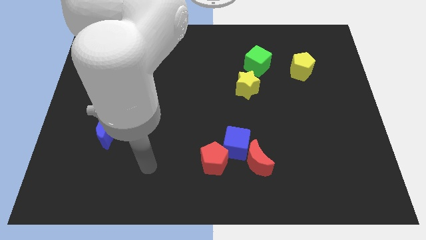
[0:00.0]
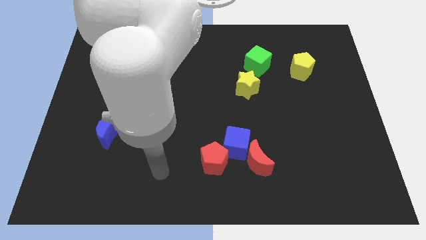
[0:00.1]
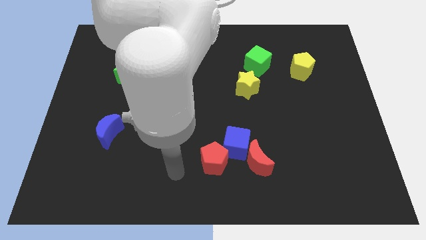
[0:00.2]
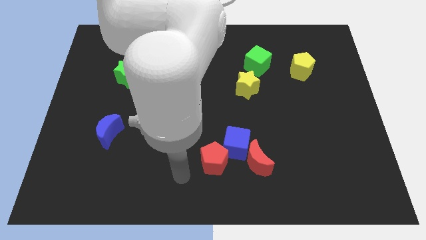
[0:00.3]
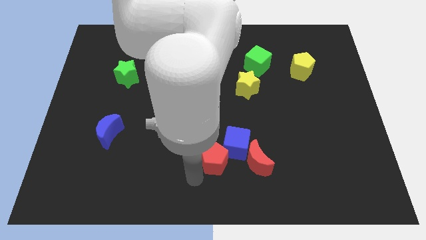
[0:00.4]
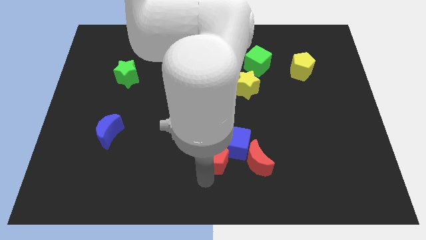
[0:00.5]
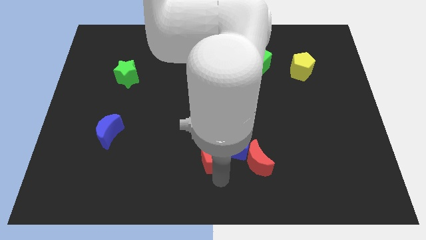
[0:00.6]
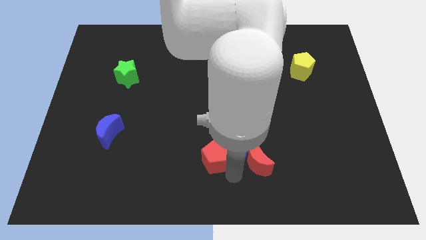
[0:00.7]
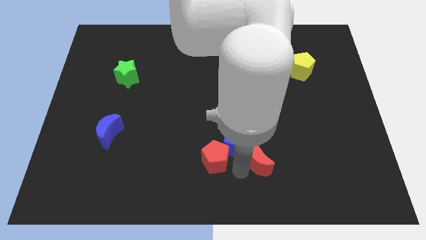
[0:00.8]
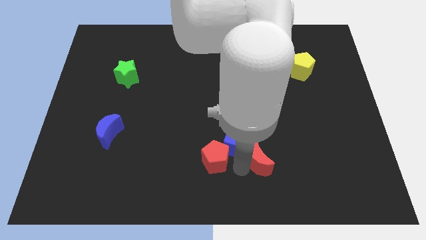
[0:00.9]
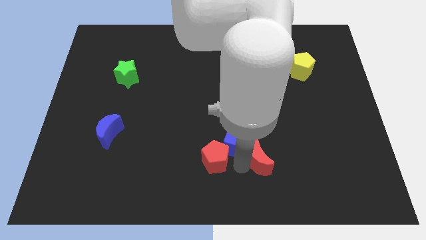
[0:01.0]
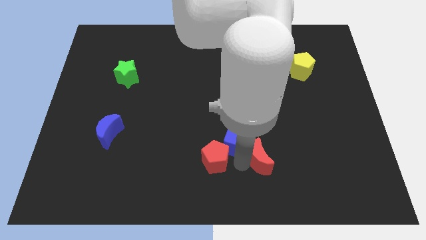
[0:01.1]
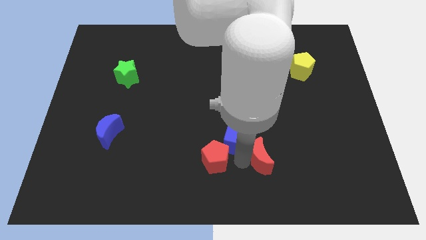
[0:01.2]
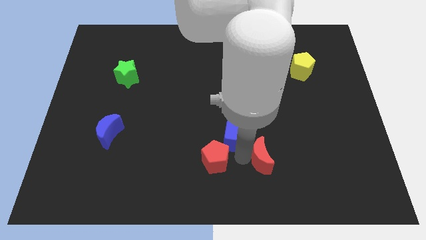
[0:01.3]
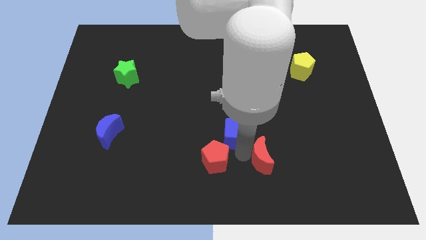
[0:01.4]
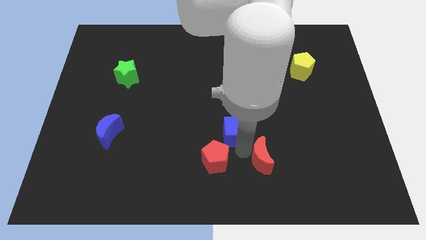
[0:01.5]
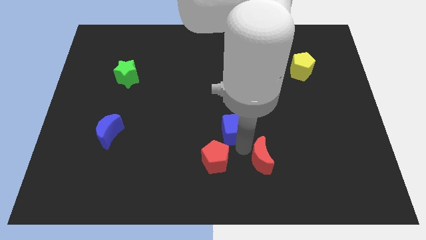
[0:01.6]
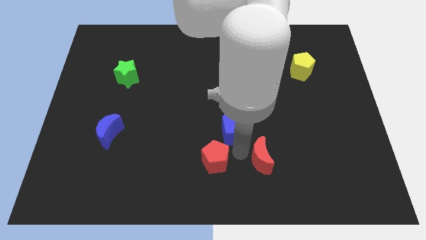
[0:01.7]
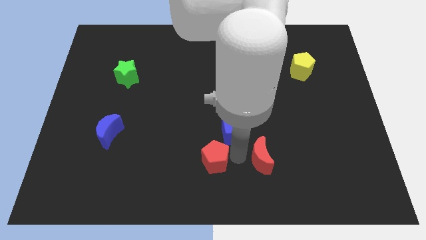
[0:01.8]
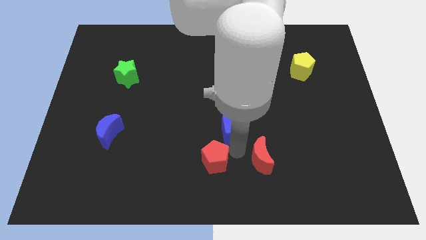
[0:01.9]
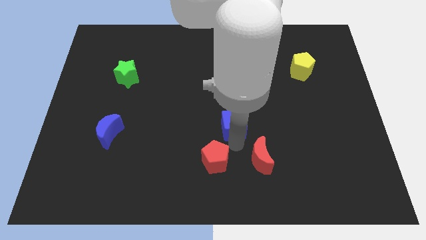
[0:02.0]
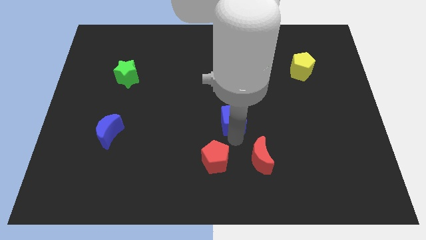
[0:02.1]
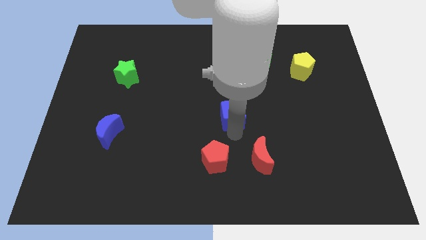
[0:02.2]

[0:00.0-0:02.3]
pull the blue cube apart from the red moon and red pentagon

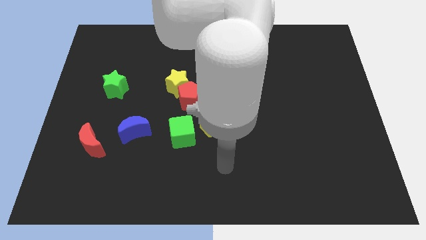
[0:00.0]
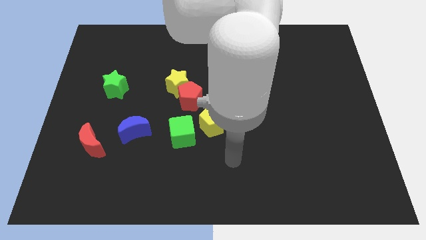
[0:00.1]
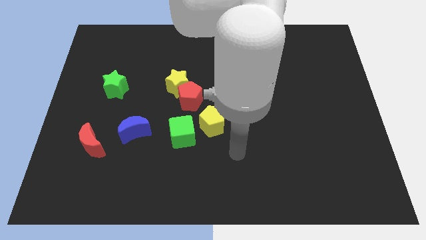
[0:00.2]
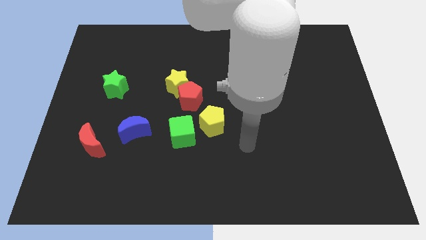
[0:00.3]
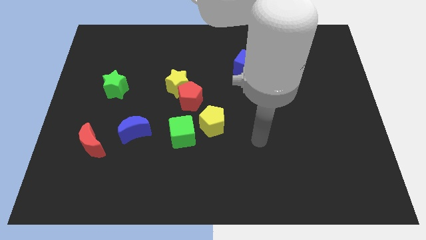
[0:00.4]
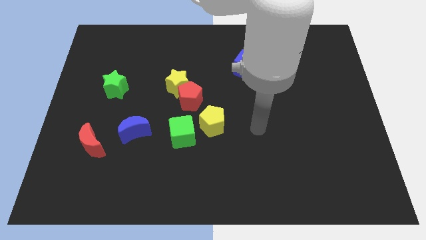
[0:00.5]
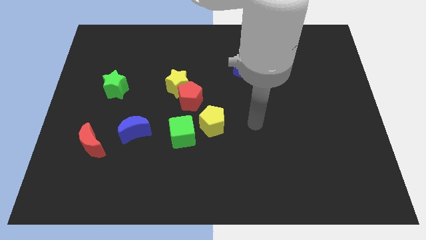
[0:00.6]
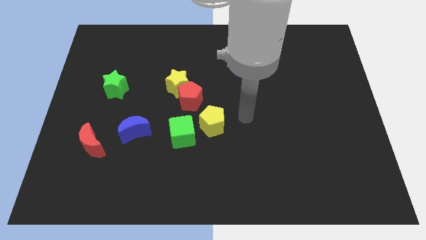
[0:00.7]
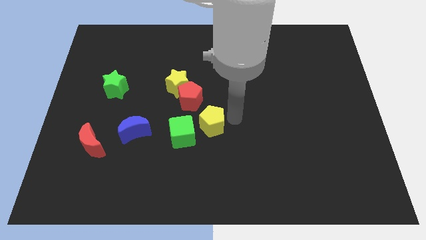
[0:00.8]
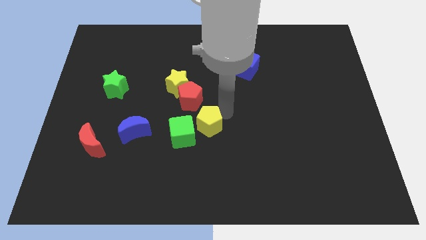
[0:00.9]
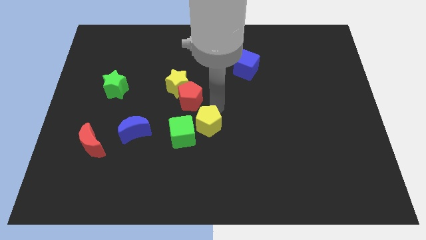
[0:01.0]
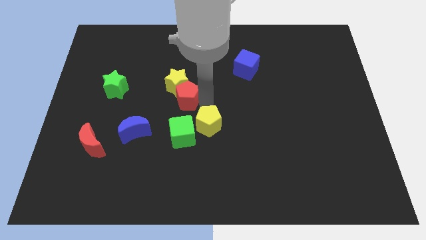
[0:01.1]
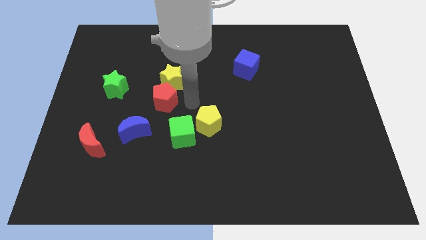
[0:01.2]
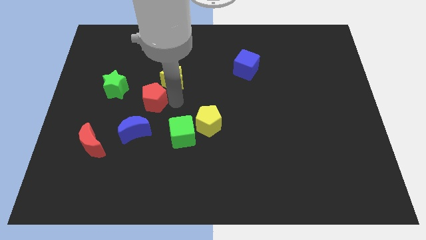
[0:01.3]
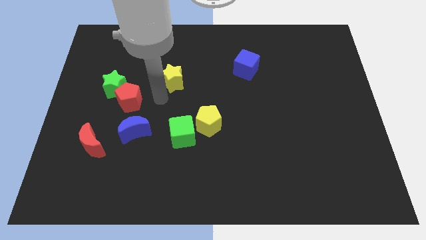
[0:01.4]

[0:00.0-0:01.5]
move the yellow star away from the red pentagon

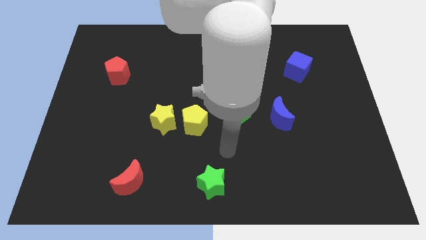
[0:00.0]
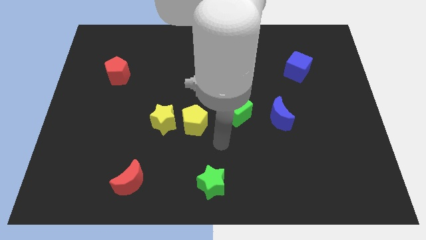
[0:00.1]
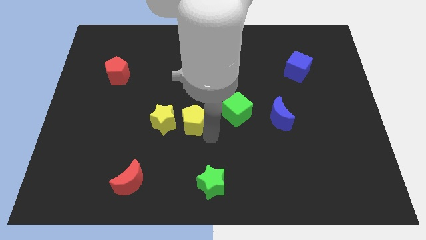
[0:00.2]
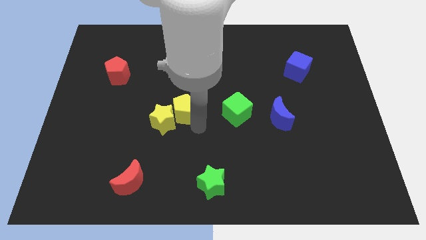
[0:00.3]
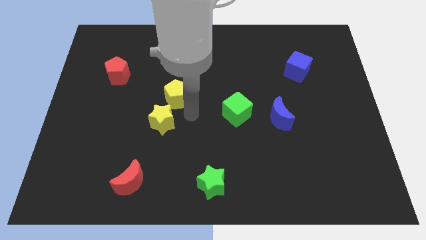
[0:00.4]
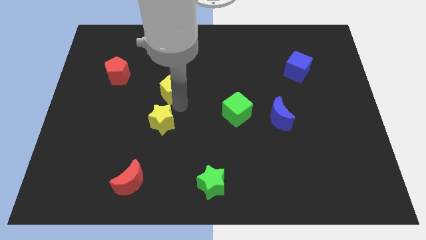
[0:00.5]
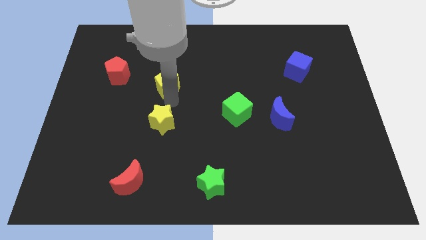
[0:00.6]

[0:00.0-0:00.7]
pull the yellow star apart from the yellow pentagon

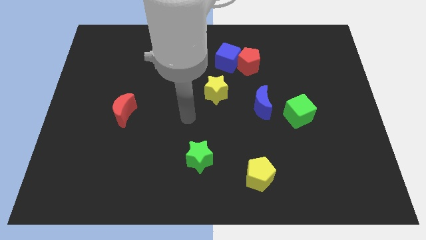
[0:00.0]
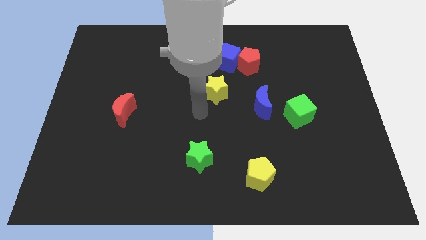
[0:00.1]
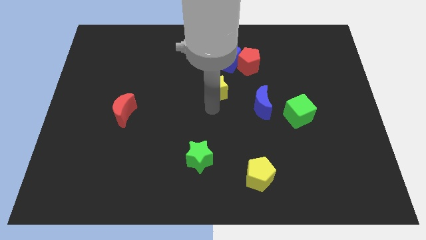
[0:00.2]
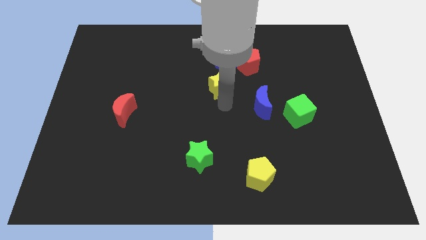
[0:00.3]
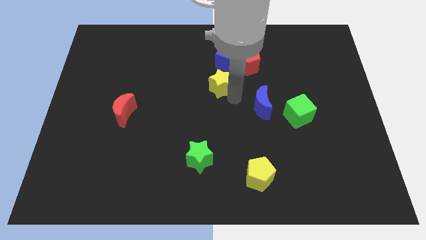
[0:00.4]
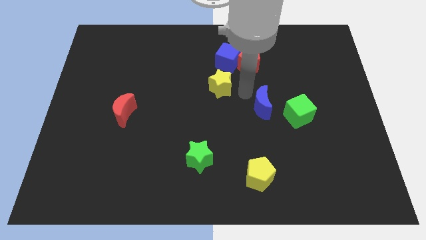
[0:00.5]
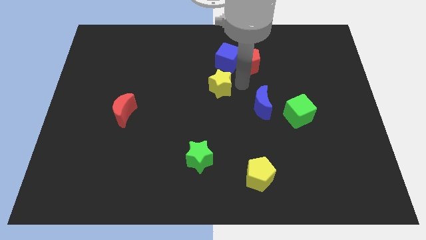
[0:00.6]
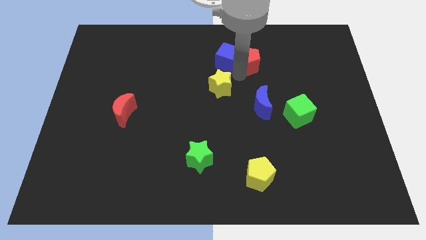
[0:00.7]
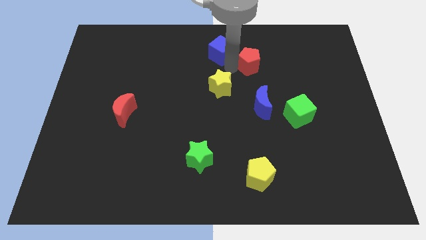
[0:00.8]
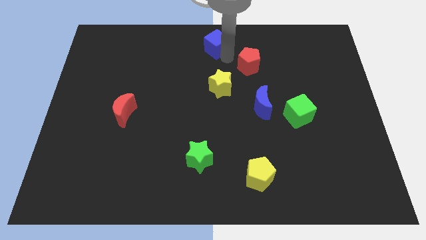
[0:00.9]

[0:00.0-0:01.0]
move the red pentagon away from the blue cube

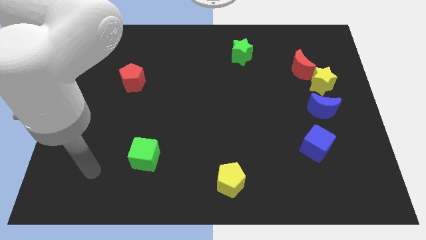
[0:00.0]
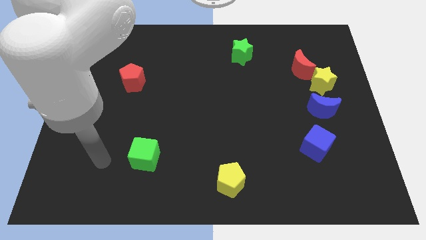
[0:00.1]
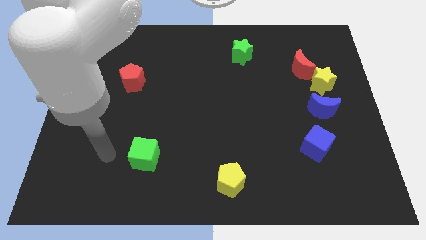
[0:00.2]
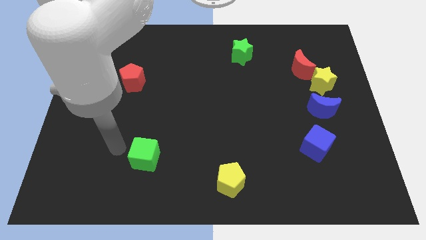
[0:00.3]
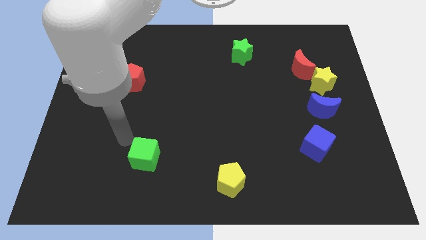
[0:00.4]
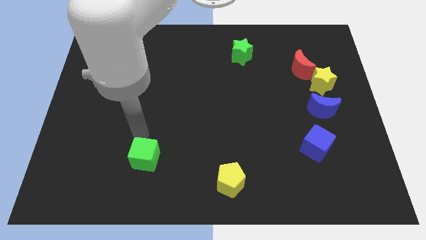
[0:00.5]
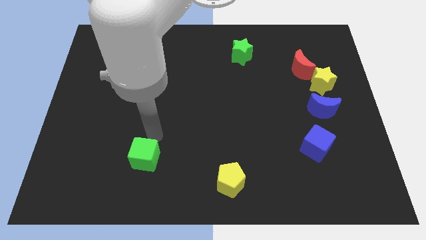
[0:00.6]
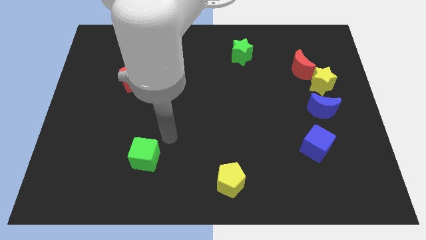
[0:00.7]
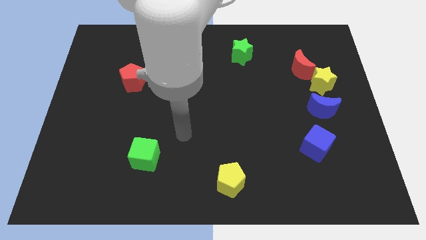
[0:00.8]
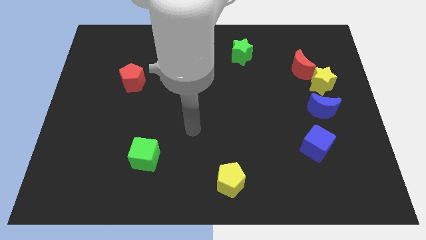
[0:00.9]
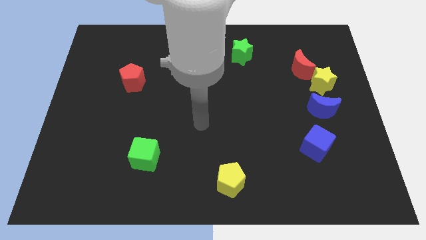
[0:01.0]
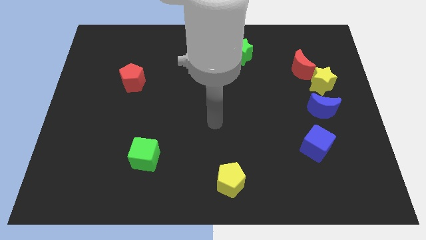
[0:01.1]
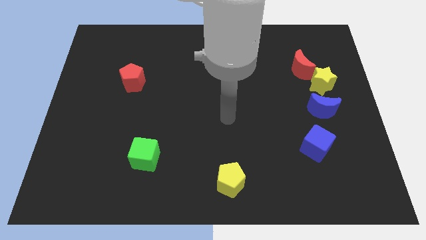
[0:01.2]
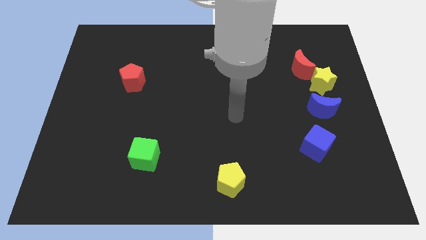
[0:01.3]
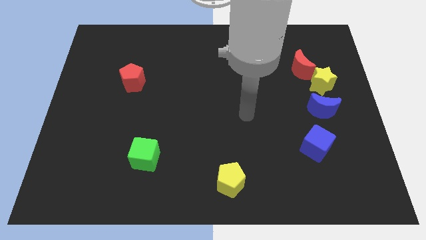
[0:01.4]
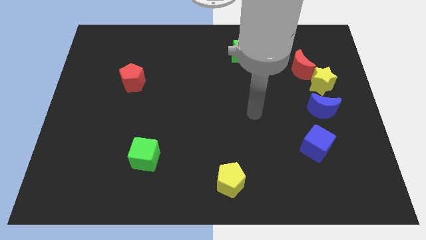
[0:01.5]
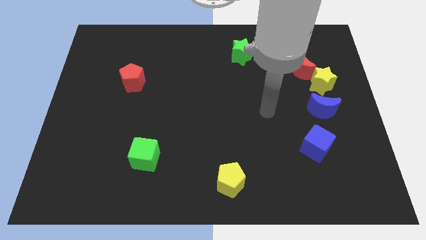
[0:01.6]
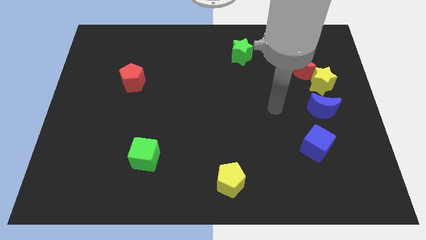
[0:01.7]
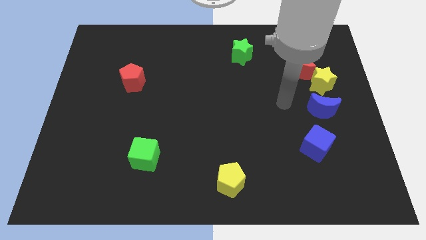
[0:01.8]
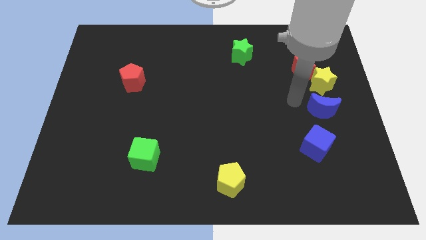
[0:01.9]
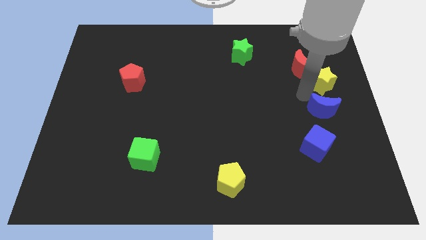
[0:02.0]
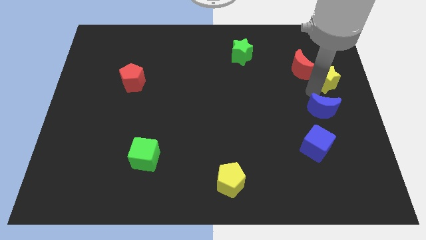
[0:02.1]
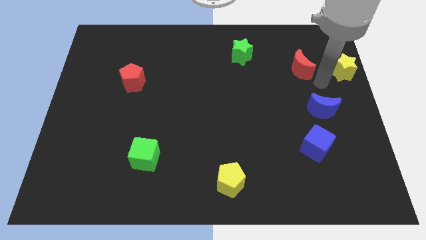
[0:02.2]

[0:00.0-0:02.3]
pull the red moon apart from the yellow star

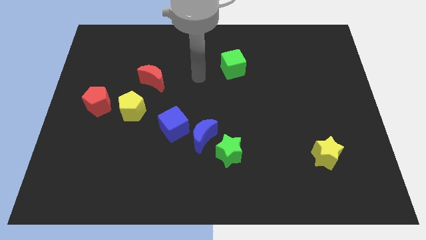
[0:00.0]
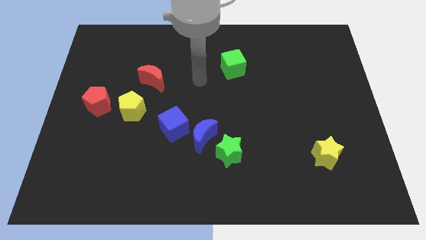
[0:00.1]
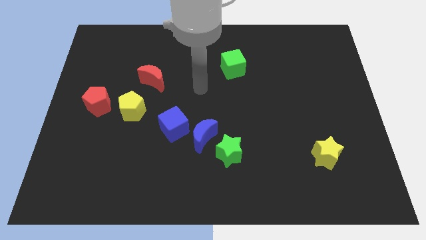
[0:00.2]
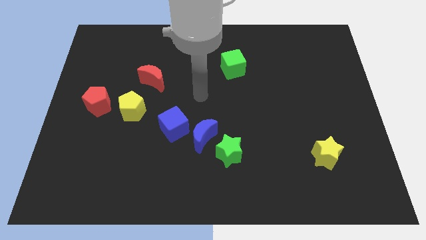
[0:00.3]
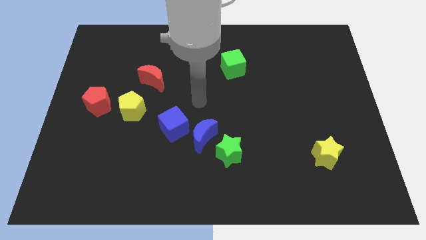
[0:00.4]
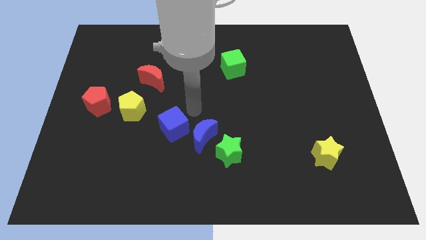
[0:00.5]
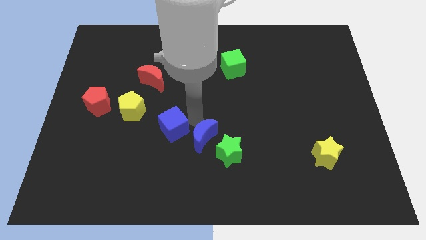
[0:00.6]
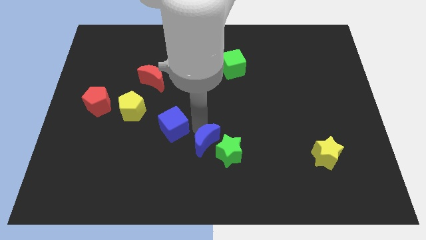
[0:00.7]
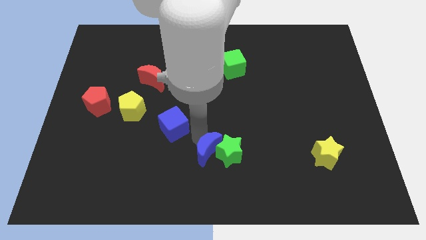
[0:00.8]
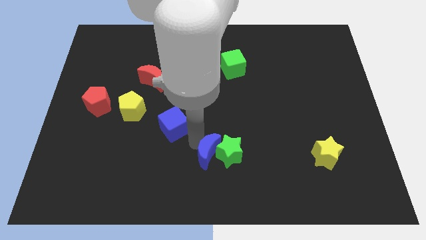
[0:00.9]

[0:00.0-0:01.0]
separate the blue cube from the blue moon

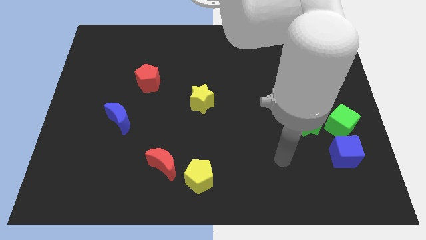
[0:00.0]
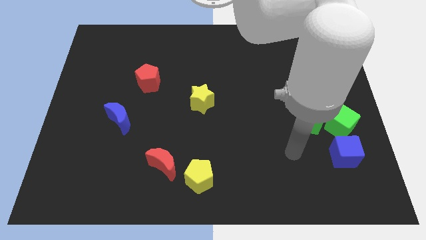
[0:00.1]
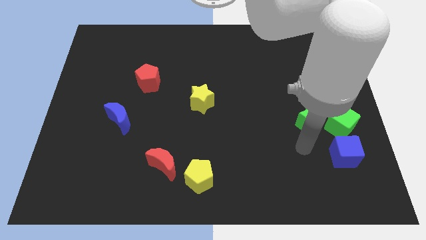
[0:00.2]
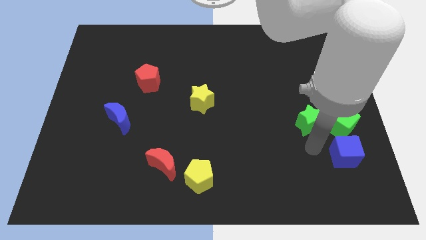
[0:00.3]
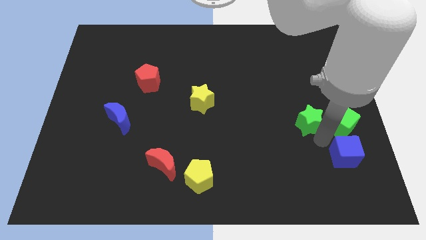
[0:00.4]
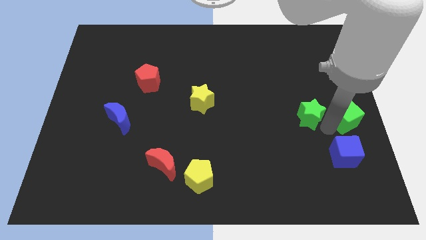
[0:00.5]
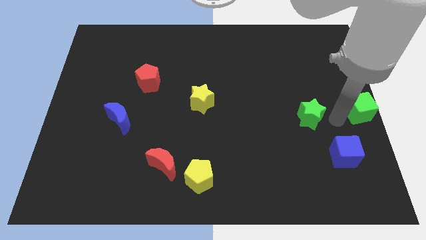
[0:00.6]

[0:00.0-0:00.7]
pull the green star apart from the green cube
